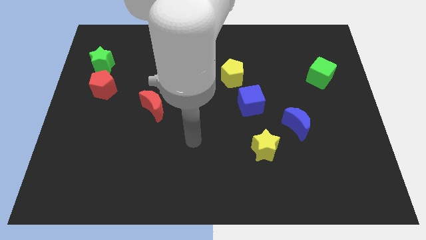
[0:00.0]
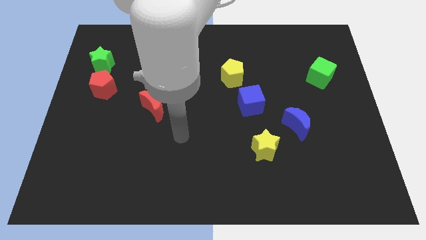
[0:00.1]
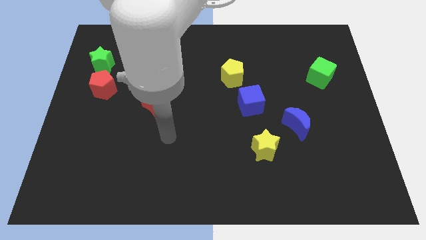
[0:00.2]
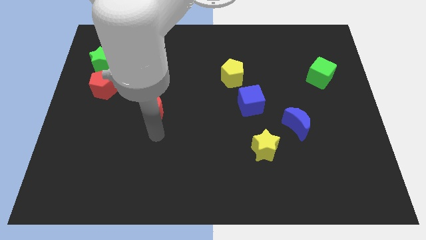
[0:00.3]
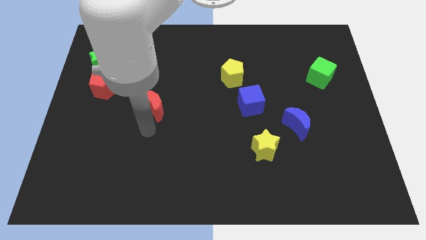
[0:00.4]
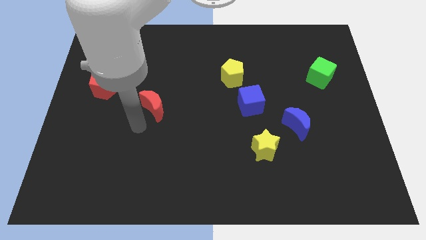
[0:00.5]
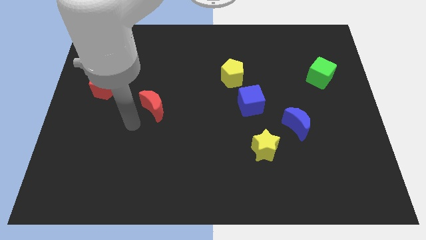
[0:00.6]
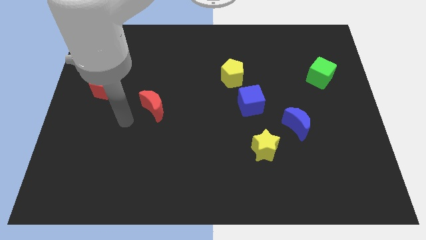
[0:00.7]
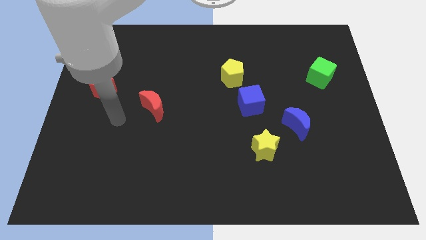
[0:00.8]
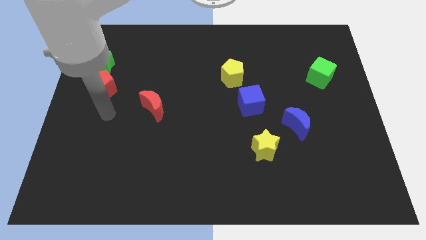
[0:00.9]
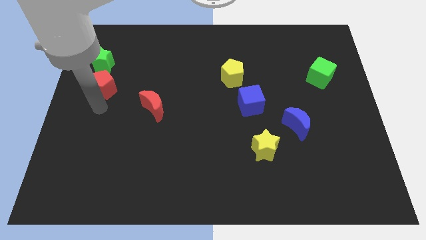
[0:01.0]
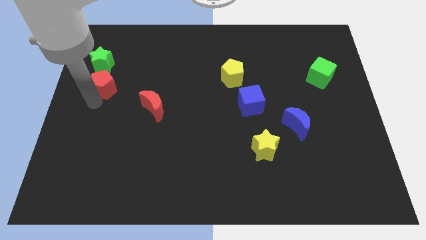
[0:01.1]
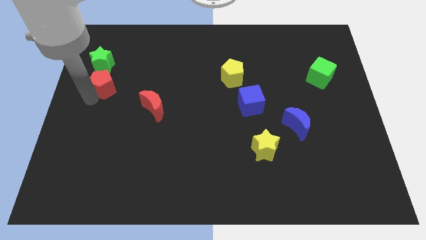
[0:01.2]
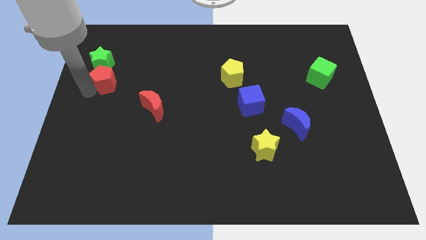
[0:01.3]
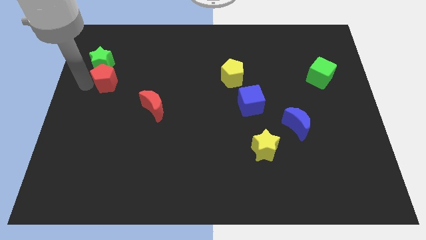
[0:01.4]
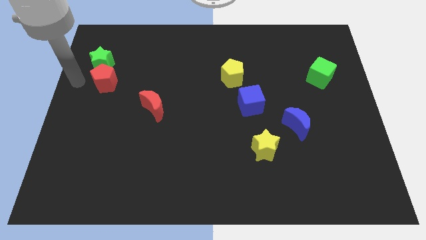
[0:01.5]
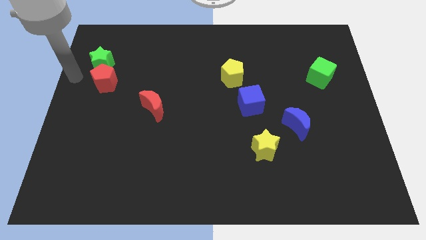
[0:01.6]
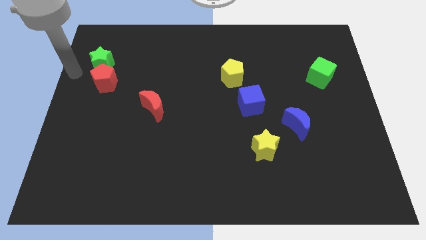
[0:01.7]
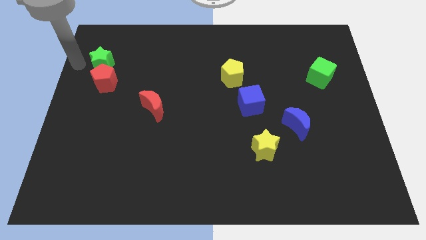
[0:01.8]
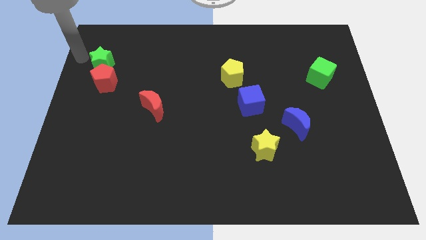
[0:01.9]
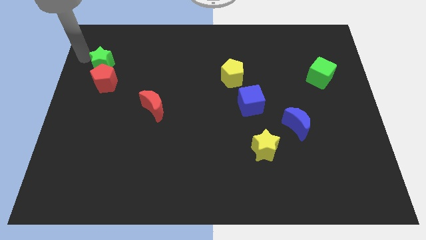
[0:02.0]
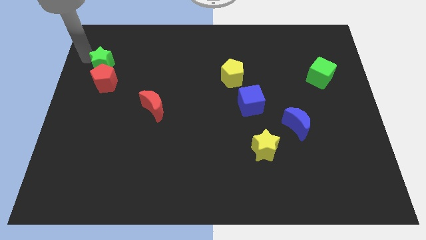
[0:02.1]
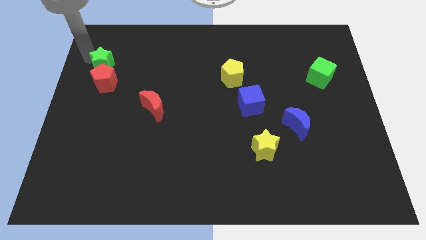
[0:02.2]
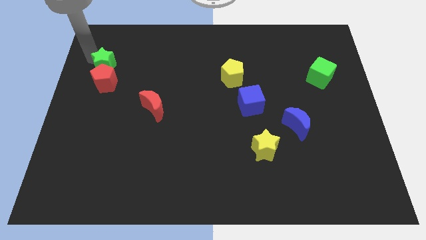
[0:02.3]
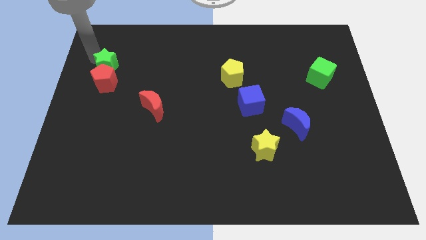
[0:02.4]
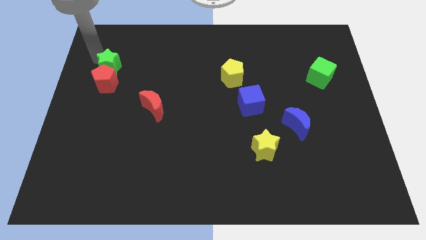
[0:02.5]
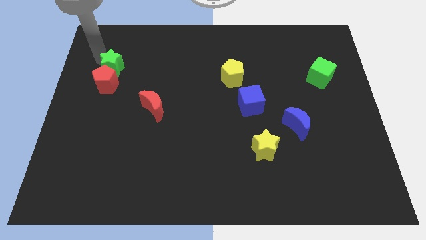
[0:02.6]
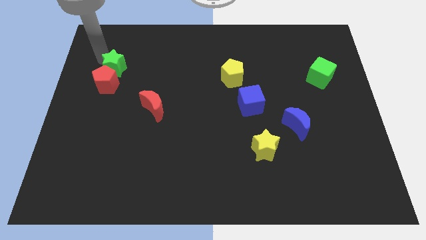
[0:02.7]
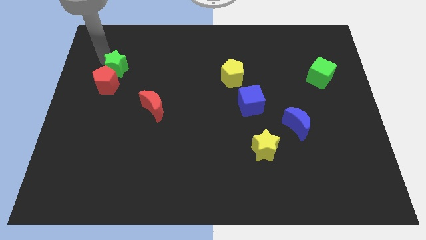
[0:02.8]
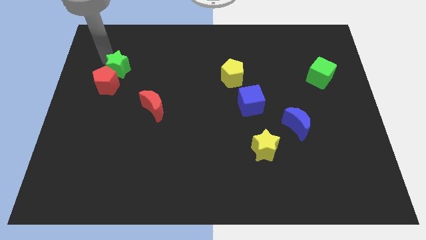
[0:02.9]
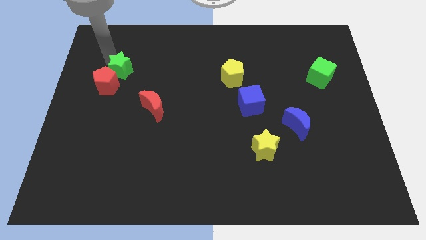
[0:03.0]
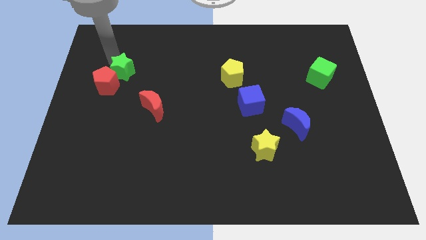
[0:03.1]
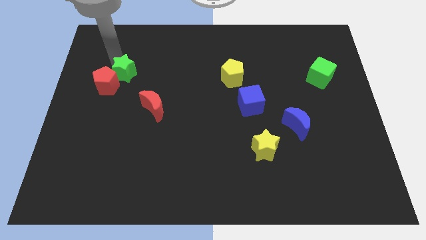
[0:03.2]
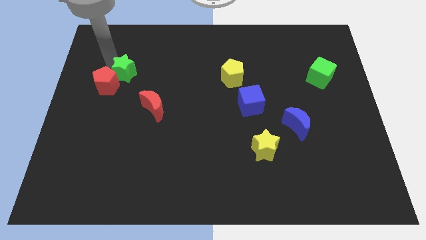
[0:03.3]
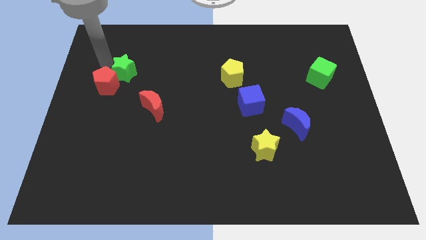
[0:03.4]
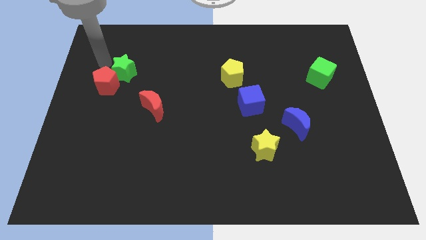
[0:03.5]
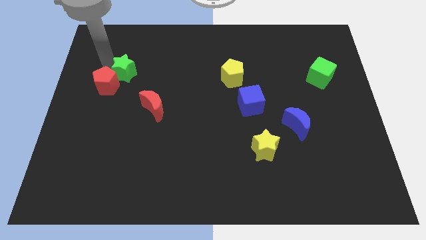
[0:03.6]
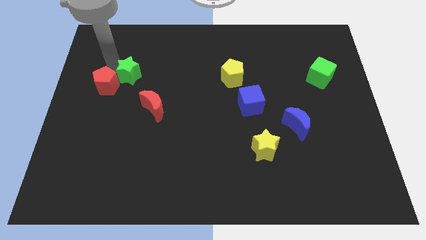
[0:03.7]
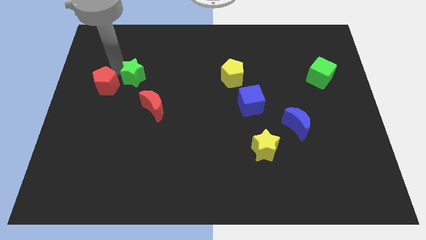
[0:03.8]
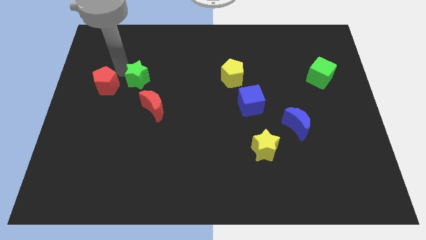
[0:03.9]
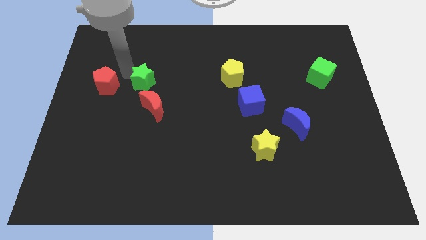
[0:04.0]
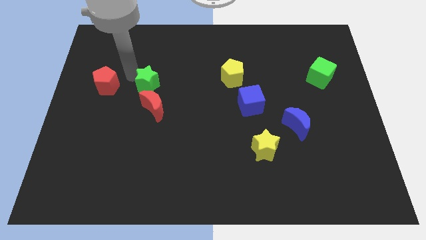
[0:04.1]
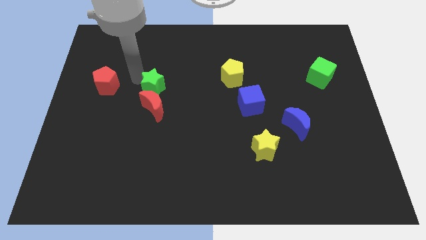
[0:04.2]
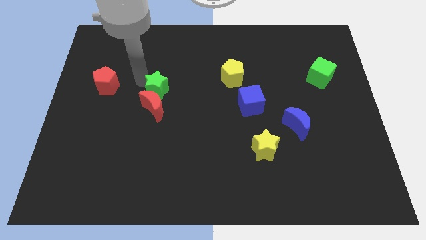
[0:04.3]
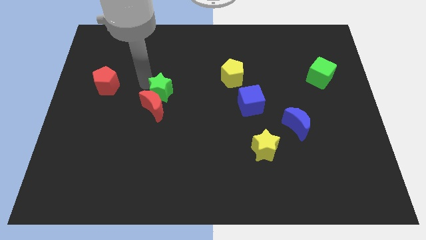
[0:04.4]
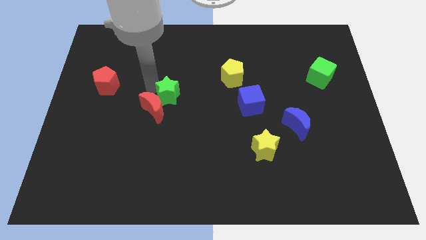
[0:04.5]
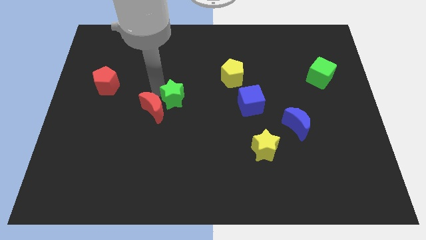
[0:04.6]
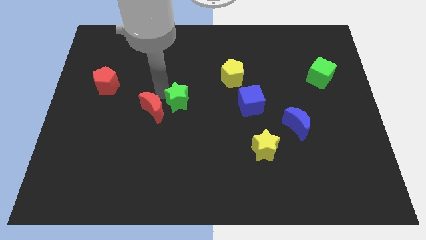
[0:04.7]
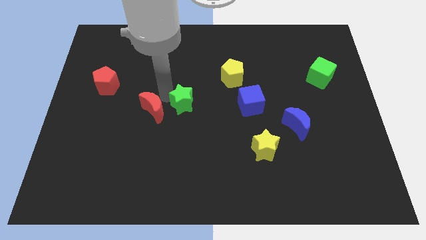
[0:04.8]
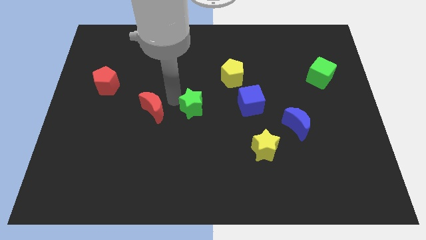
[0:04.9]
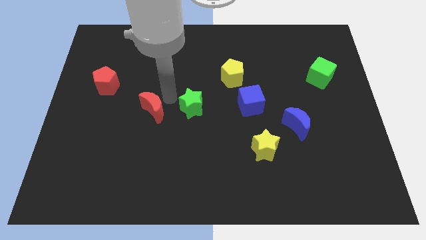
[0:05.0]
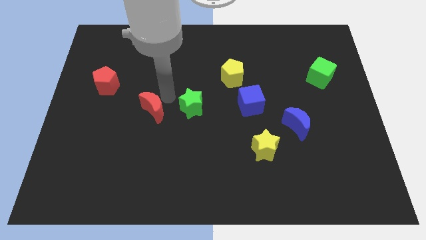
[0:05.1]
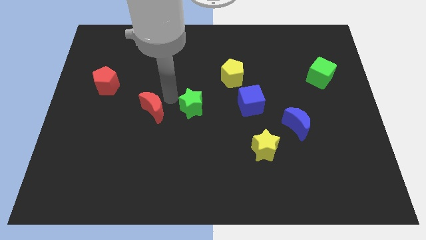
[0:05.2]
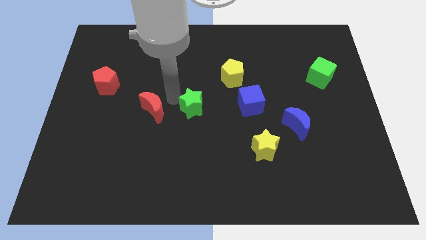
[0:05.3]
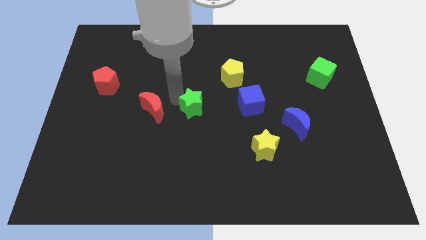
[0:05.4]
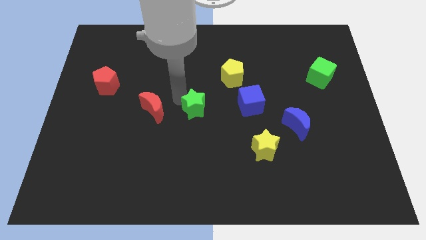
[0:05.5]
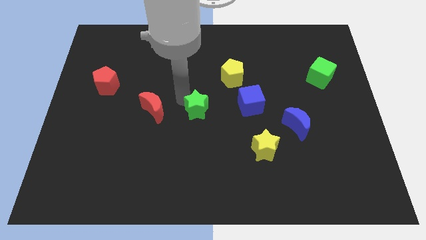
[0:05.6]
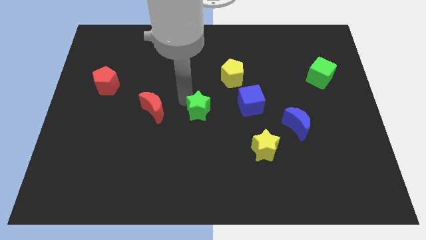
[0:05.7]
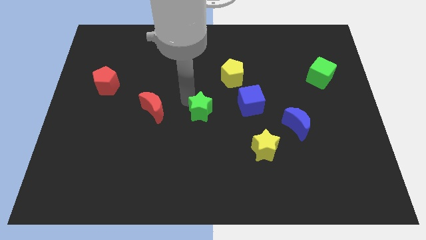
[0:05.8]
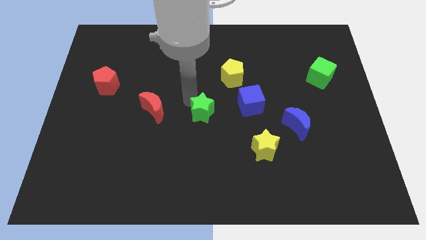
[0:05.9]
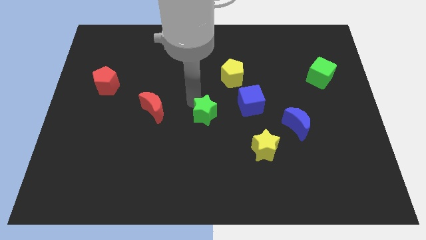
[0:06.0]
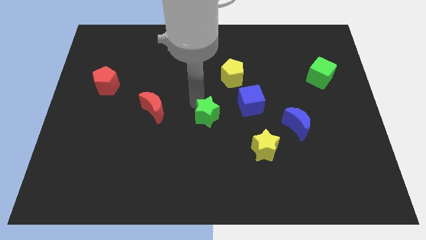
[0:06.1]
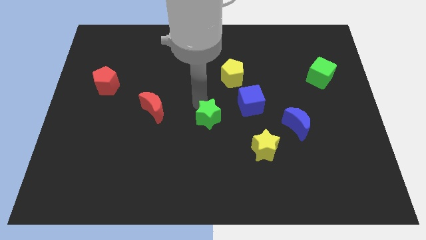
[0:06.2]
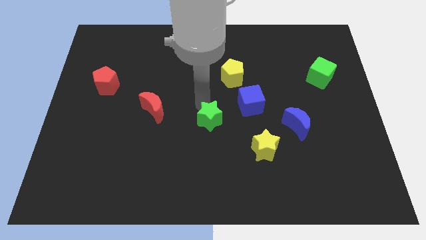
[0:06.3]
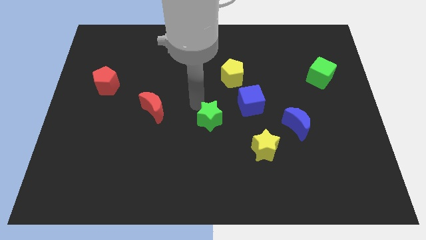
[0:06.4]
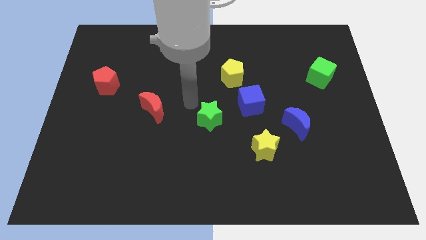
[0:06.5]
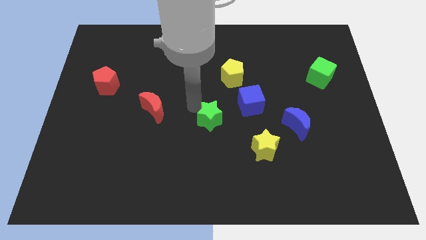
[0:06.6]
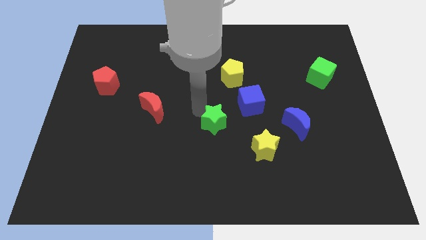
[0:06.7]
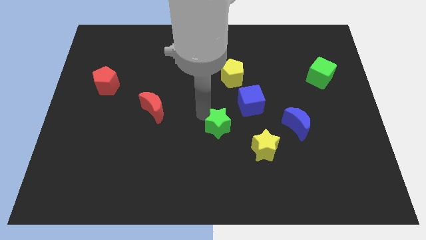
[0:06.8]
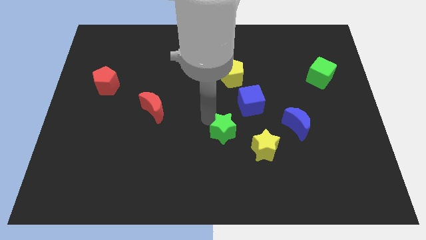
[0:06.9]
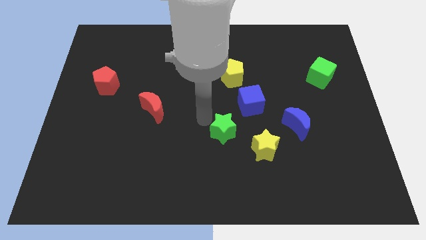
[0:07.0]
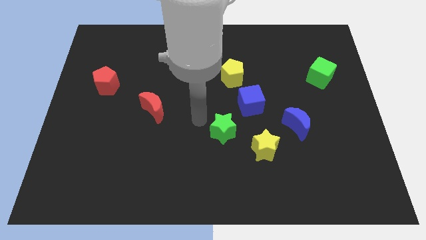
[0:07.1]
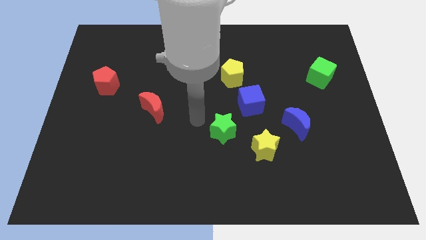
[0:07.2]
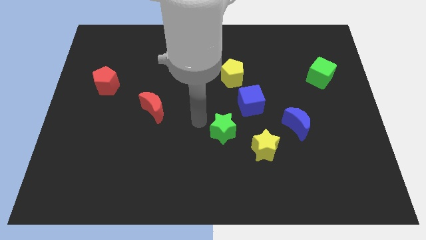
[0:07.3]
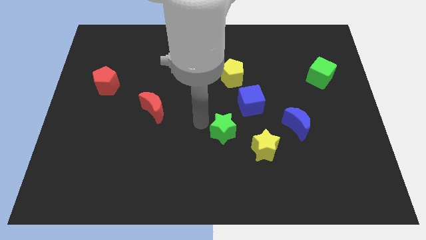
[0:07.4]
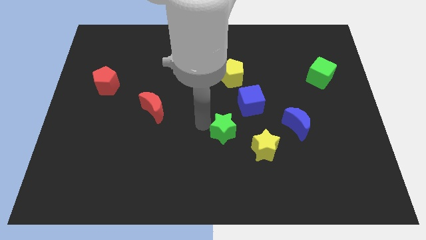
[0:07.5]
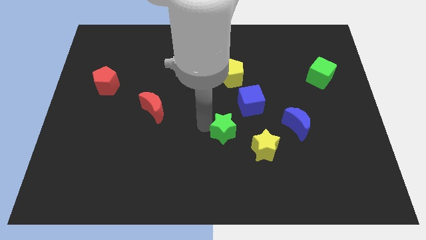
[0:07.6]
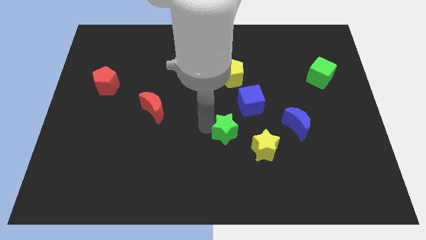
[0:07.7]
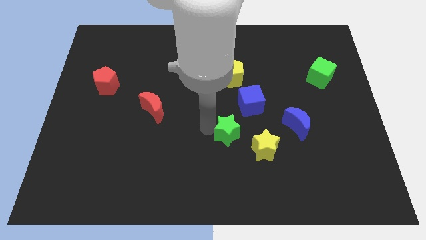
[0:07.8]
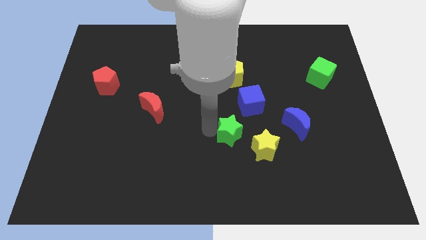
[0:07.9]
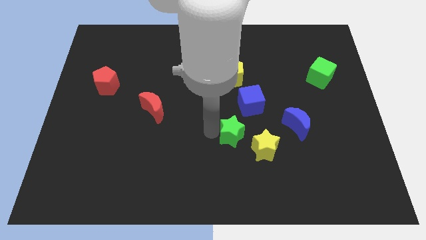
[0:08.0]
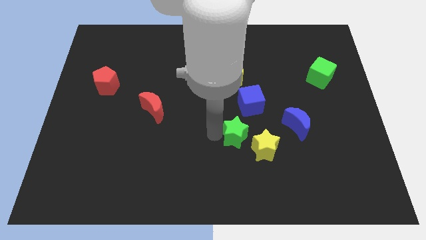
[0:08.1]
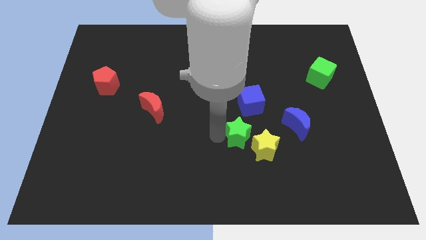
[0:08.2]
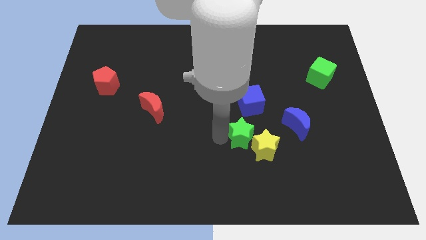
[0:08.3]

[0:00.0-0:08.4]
slide the green star towards the yellow star
